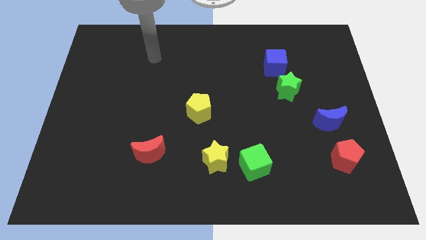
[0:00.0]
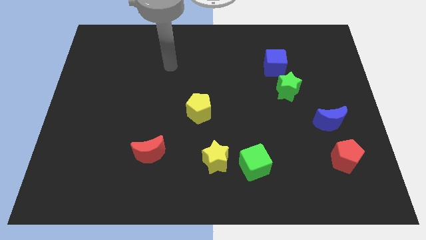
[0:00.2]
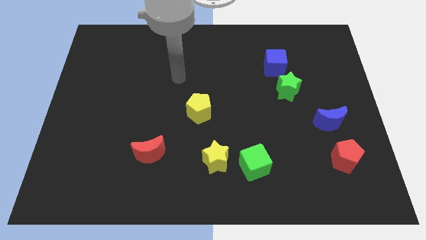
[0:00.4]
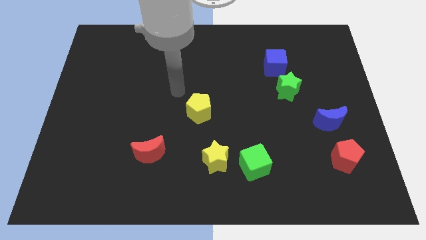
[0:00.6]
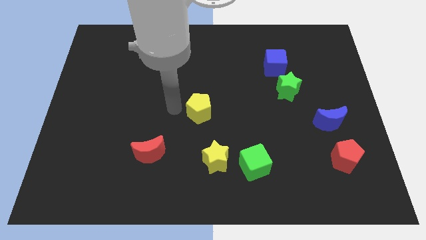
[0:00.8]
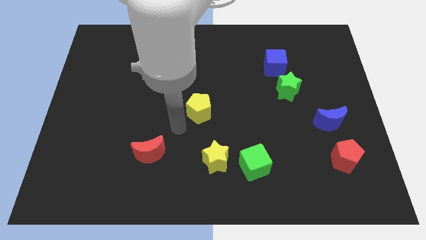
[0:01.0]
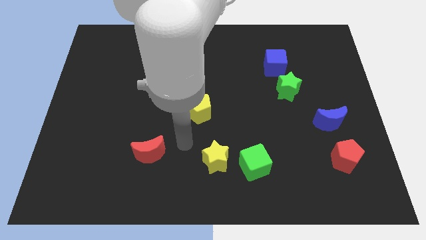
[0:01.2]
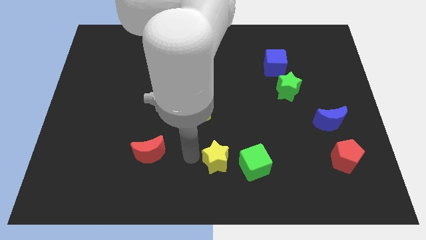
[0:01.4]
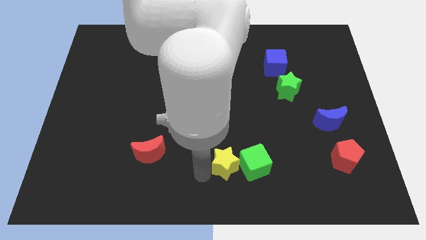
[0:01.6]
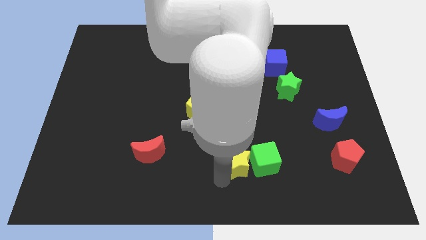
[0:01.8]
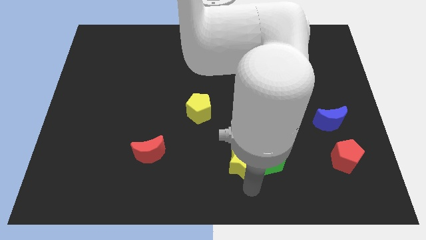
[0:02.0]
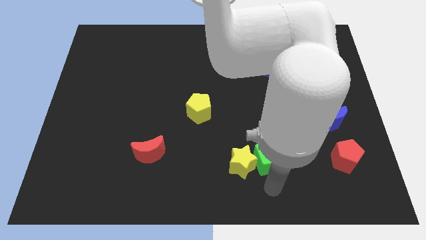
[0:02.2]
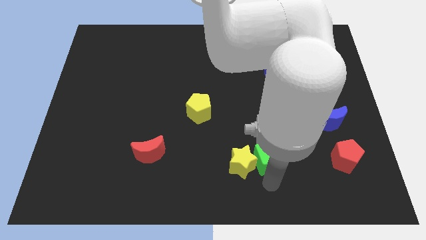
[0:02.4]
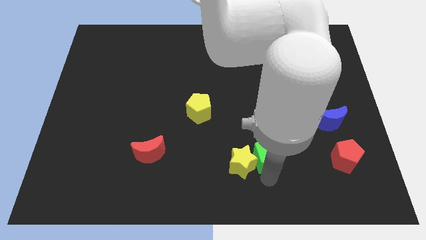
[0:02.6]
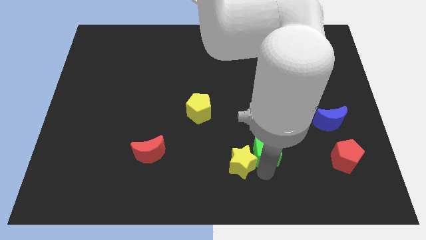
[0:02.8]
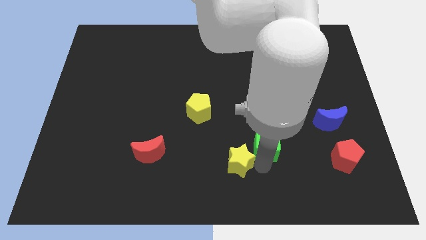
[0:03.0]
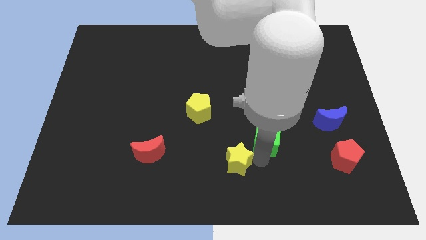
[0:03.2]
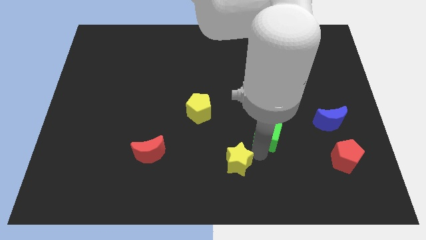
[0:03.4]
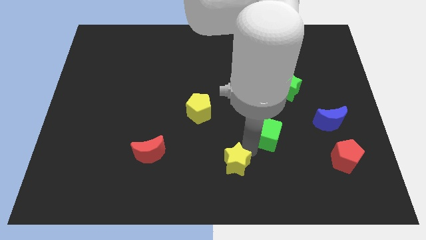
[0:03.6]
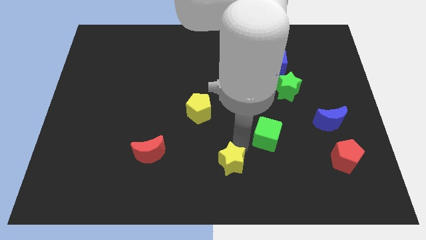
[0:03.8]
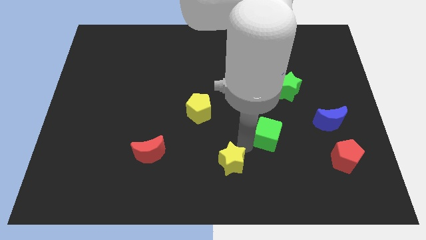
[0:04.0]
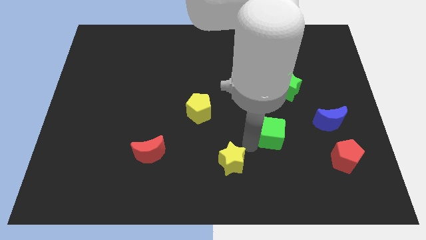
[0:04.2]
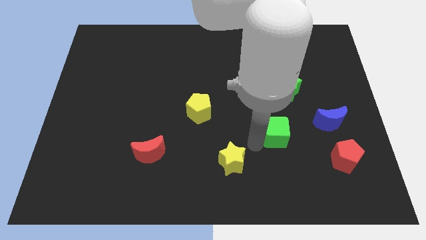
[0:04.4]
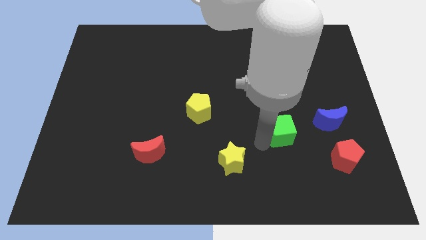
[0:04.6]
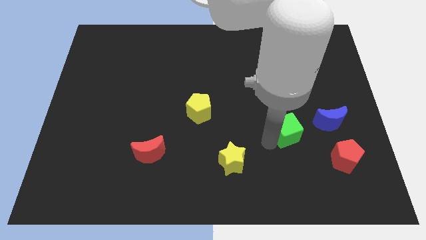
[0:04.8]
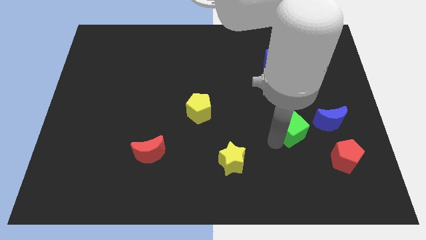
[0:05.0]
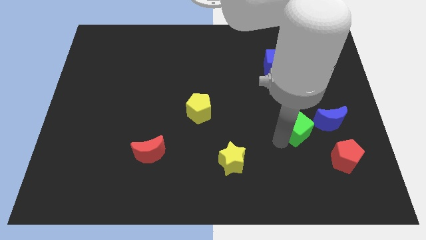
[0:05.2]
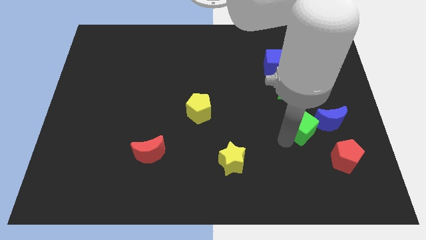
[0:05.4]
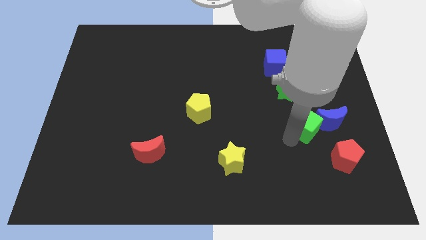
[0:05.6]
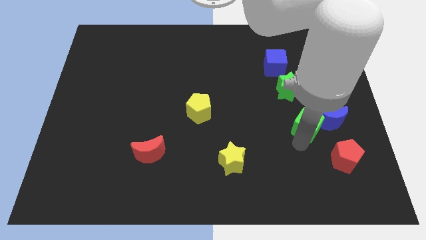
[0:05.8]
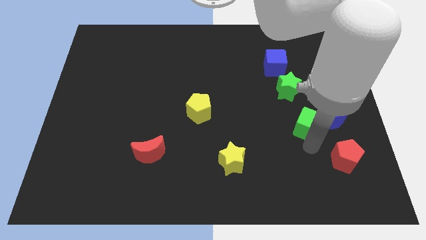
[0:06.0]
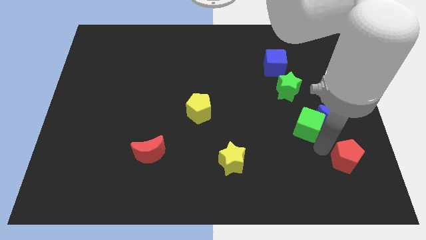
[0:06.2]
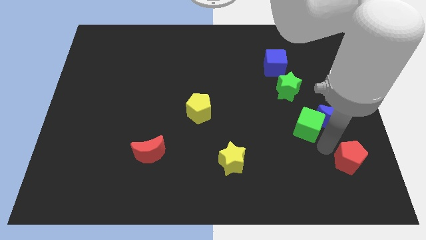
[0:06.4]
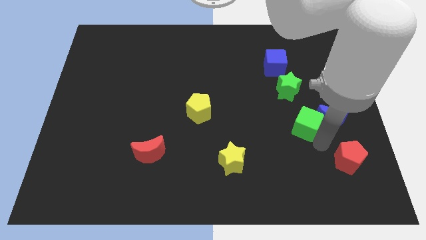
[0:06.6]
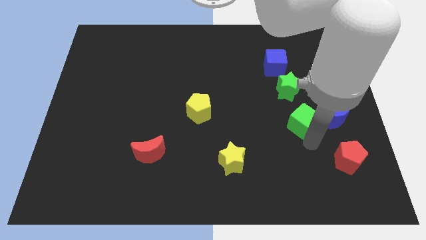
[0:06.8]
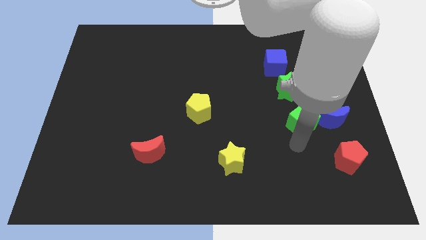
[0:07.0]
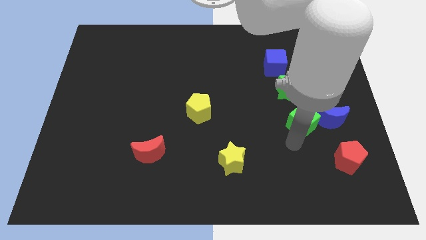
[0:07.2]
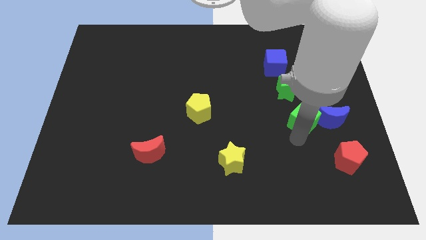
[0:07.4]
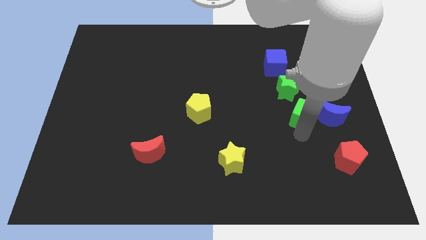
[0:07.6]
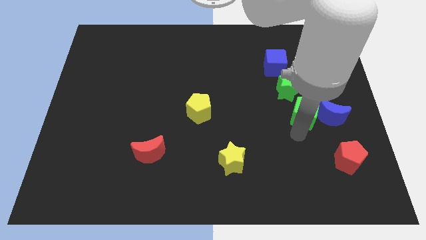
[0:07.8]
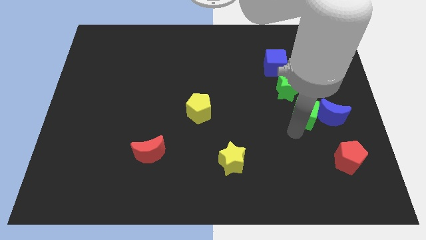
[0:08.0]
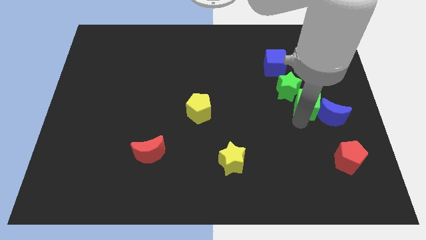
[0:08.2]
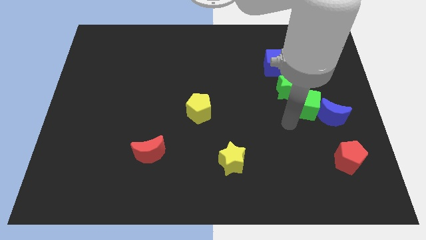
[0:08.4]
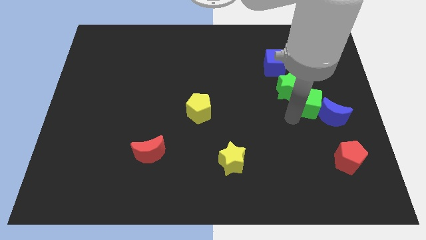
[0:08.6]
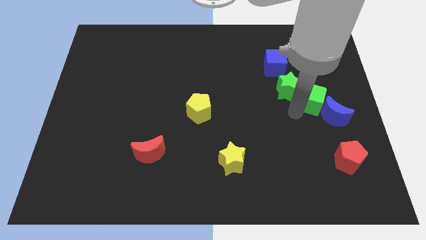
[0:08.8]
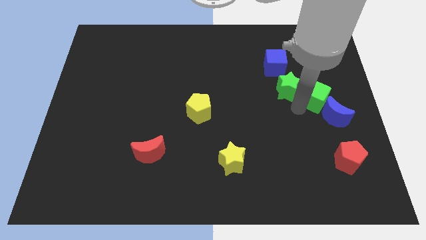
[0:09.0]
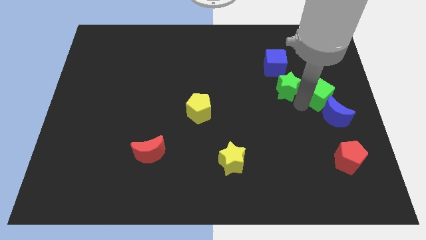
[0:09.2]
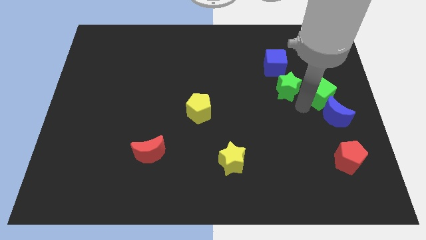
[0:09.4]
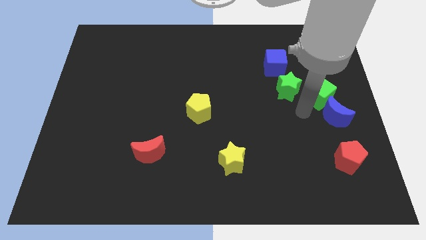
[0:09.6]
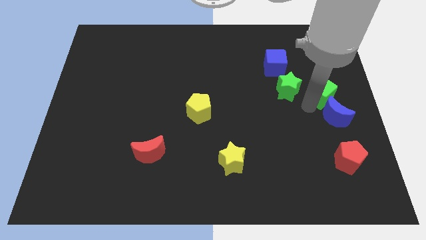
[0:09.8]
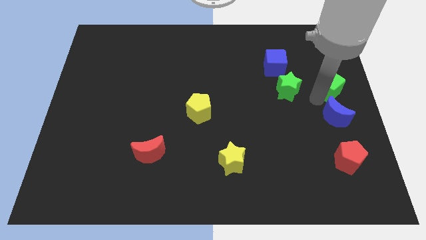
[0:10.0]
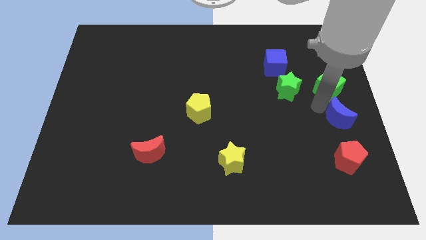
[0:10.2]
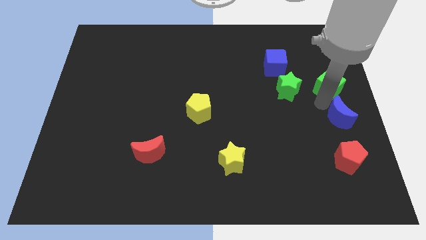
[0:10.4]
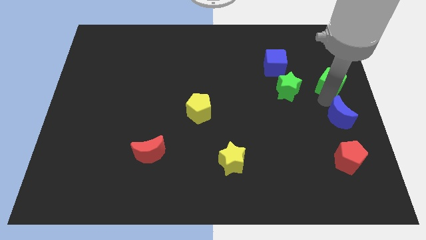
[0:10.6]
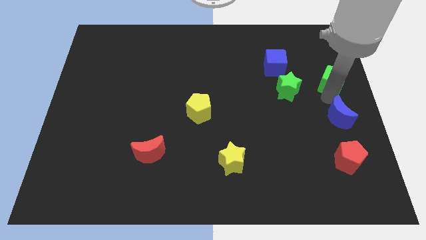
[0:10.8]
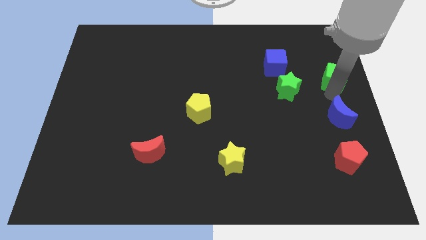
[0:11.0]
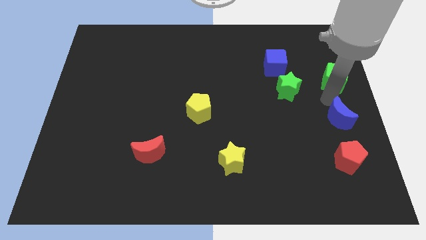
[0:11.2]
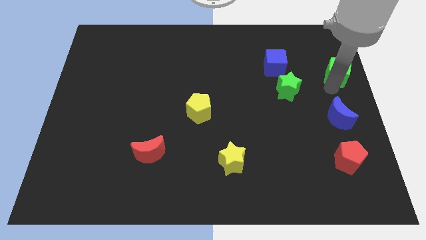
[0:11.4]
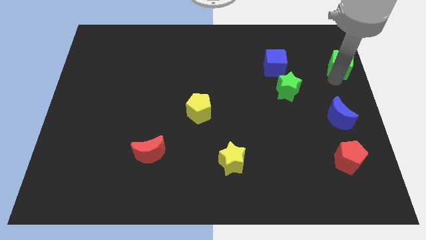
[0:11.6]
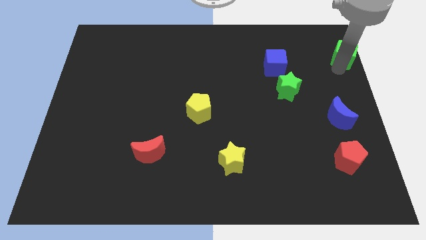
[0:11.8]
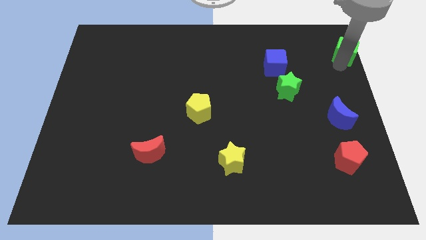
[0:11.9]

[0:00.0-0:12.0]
put the green cube to the upper right corner

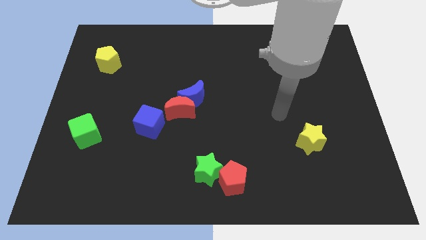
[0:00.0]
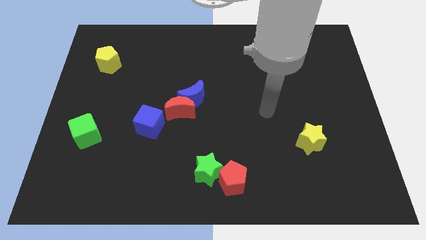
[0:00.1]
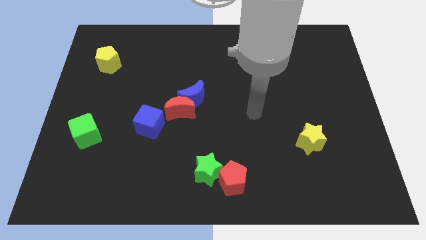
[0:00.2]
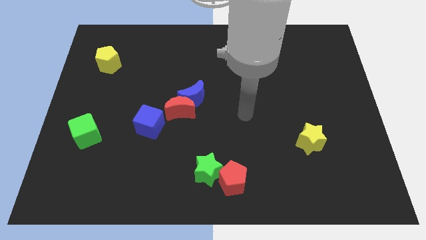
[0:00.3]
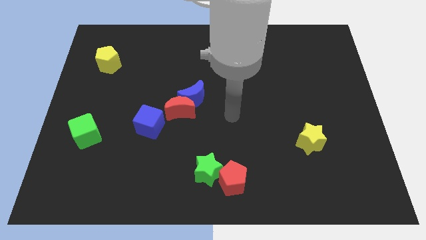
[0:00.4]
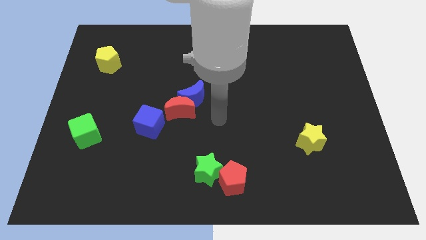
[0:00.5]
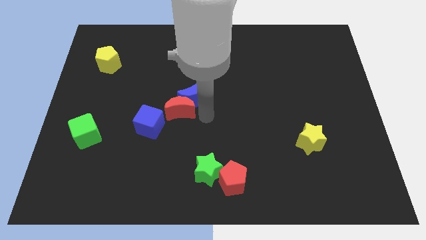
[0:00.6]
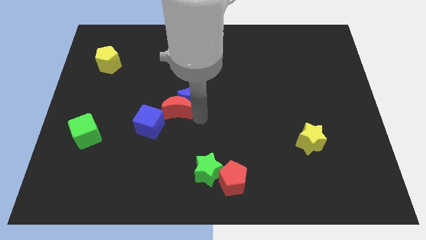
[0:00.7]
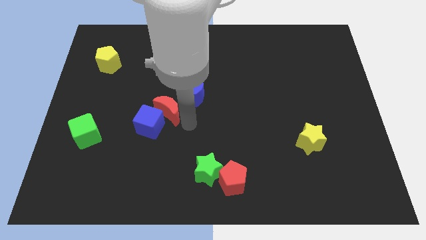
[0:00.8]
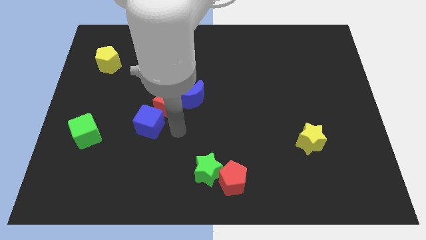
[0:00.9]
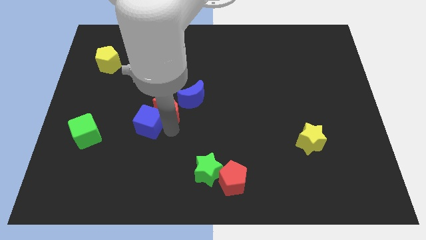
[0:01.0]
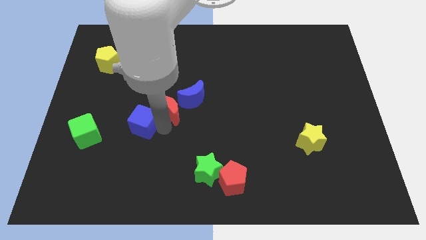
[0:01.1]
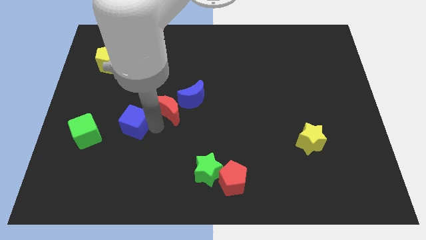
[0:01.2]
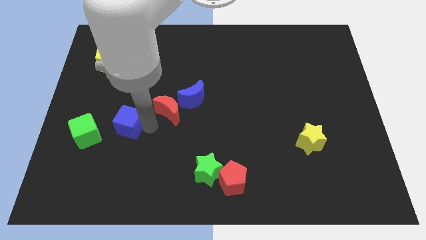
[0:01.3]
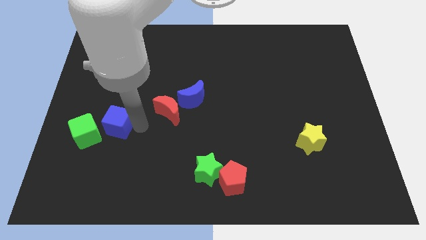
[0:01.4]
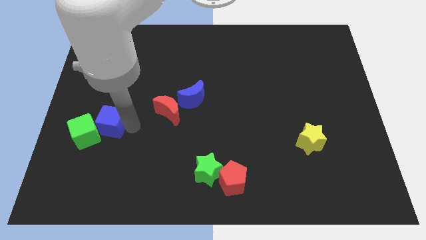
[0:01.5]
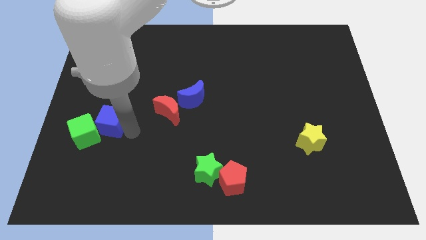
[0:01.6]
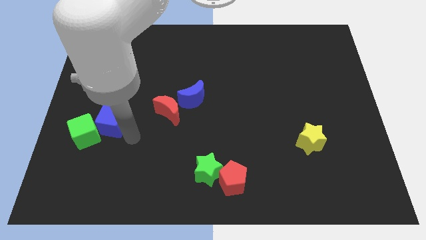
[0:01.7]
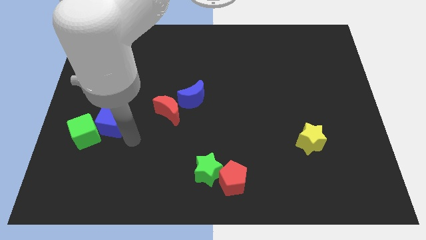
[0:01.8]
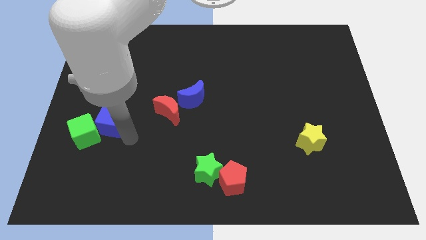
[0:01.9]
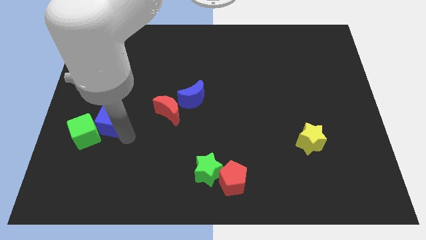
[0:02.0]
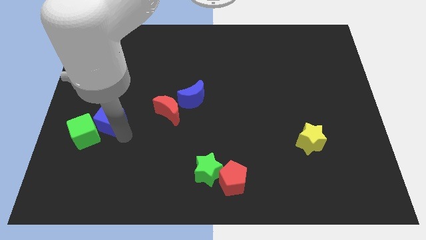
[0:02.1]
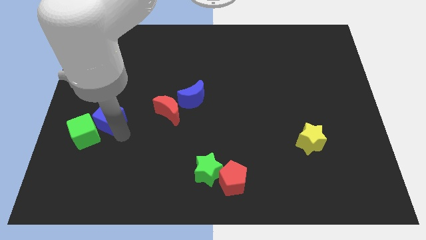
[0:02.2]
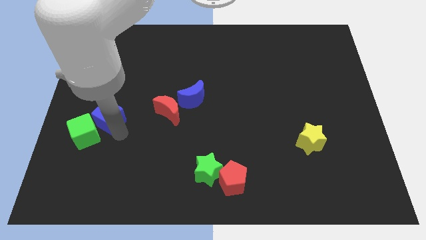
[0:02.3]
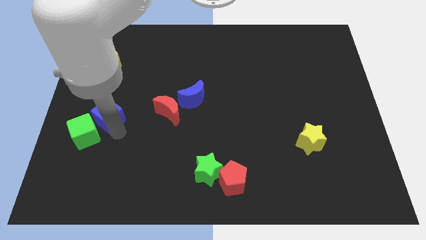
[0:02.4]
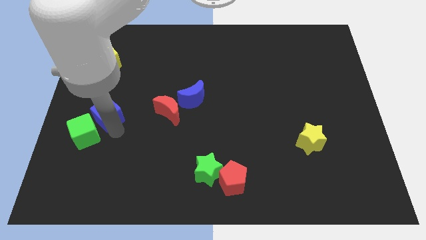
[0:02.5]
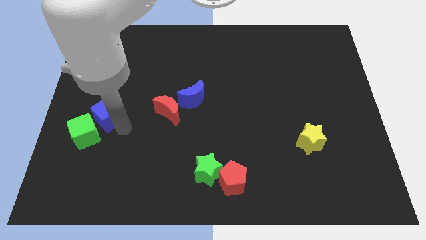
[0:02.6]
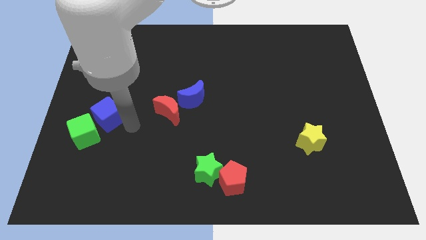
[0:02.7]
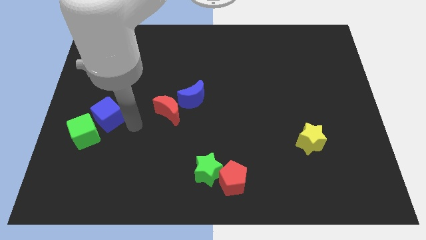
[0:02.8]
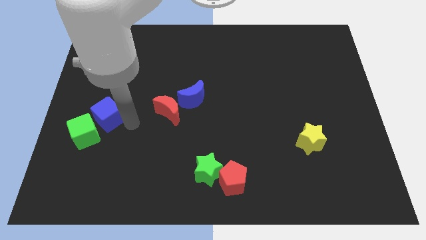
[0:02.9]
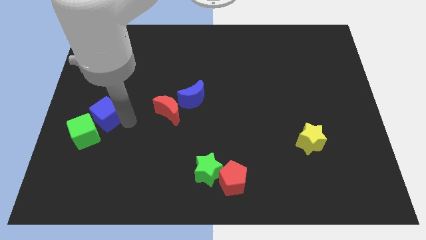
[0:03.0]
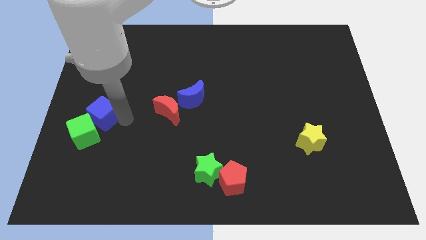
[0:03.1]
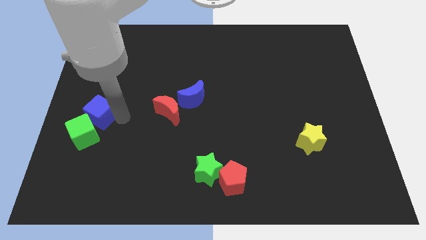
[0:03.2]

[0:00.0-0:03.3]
slide the blue cube to the left side
